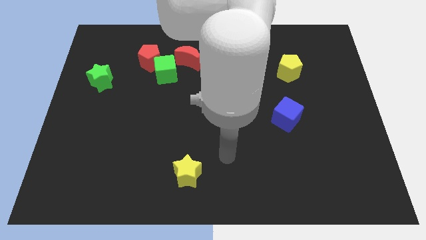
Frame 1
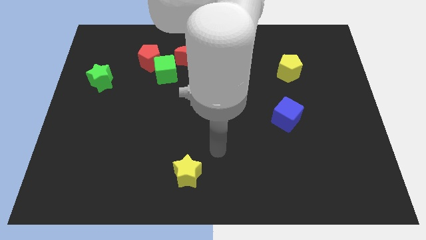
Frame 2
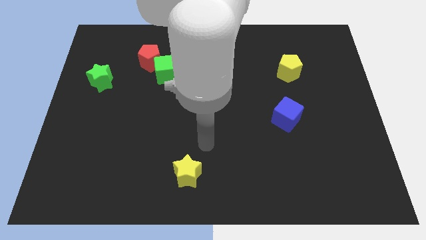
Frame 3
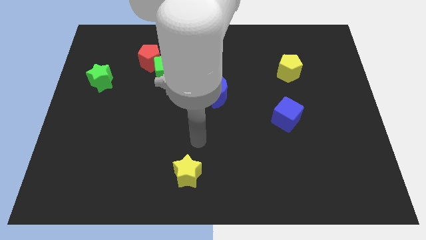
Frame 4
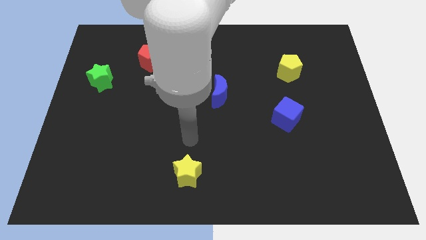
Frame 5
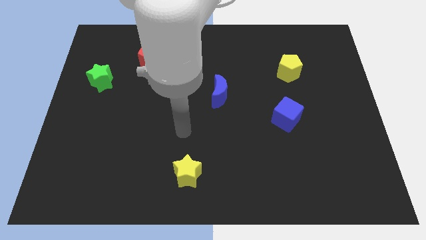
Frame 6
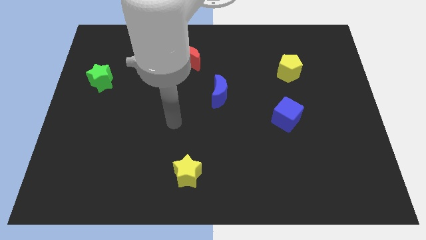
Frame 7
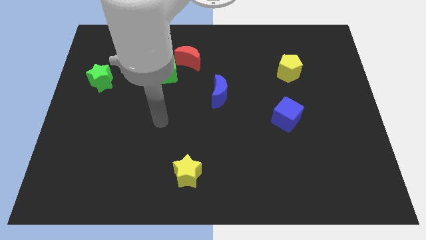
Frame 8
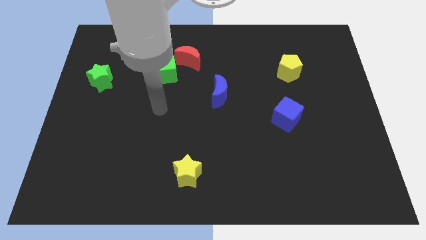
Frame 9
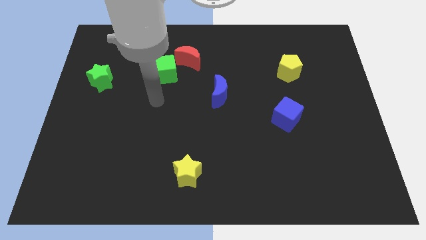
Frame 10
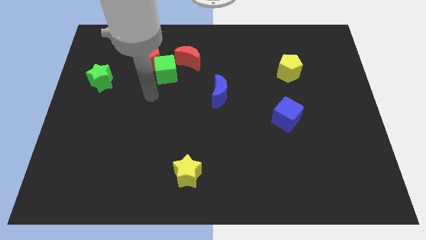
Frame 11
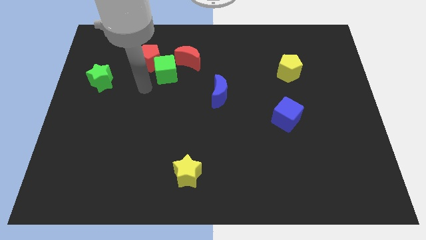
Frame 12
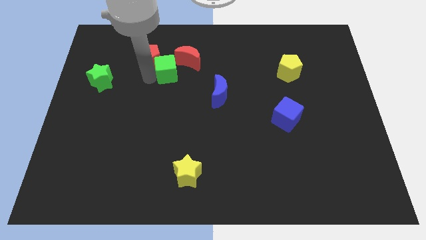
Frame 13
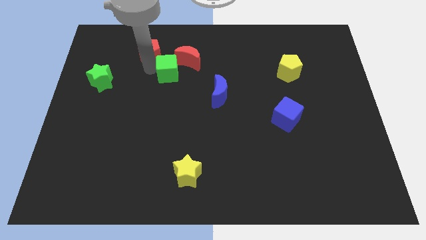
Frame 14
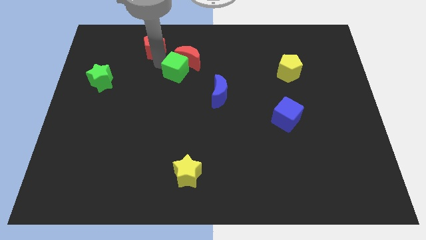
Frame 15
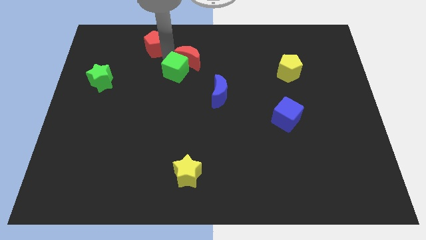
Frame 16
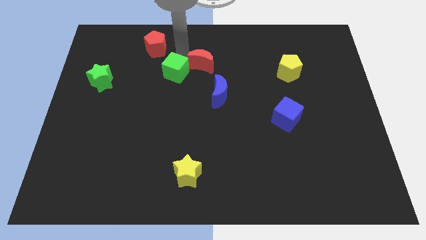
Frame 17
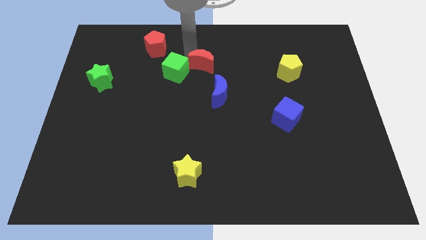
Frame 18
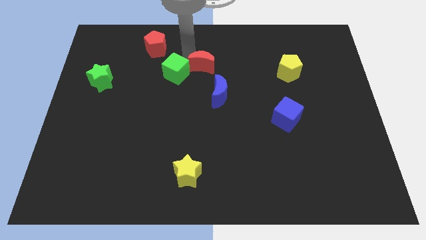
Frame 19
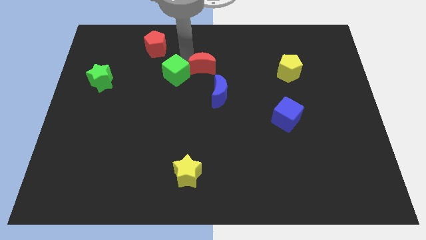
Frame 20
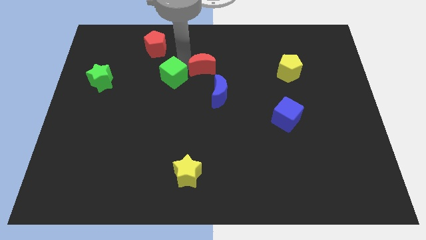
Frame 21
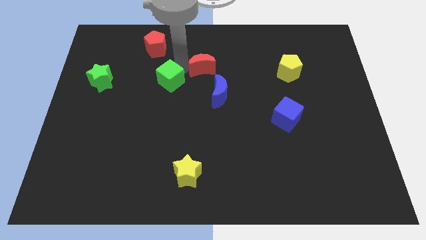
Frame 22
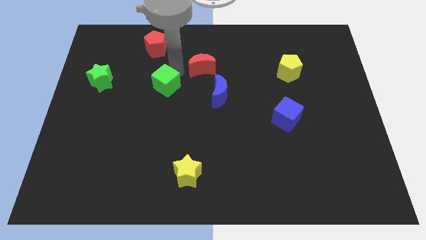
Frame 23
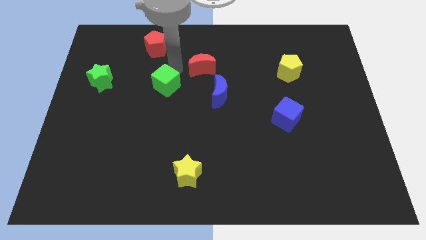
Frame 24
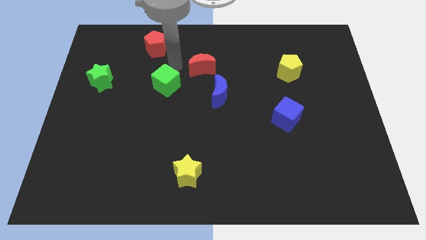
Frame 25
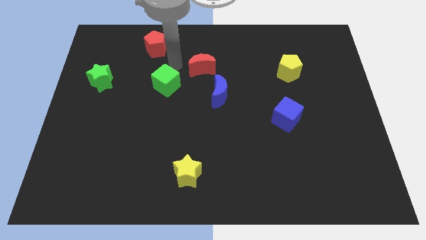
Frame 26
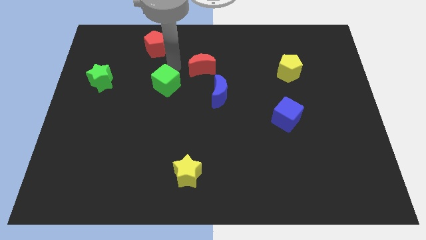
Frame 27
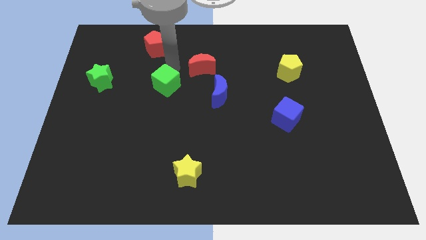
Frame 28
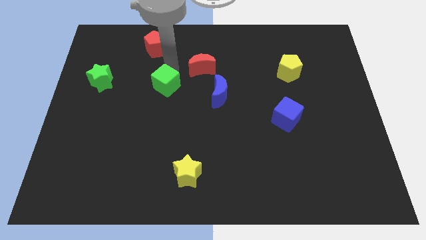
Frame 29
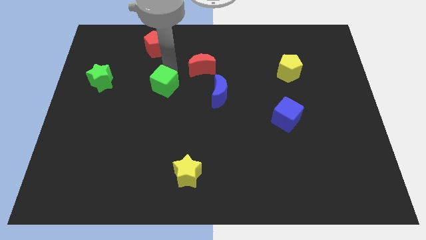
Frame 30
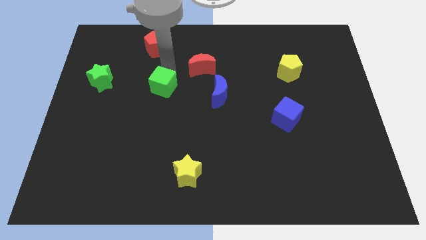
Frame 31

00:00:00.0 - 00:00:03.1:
separate the green cube from the red pentagon and red moon

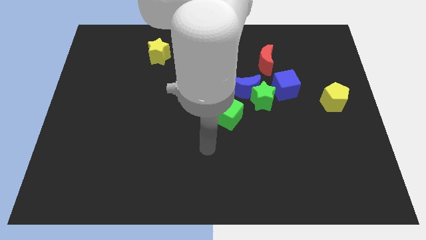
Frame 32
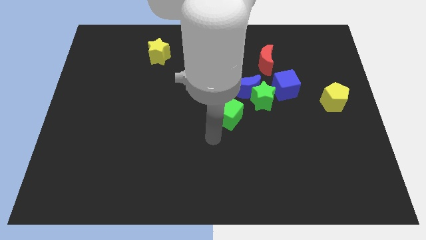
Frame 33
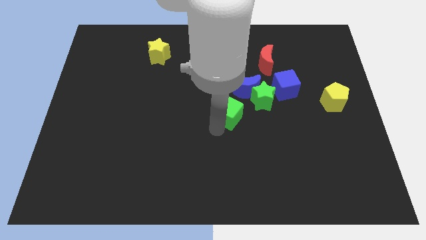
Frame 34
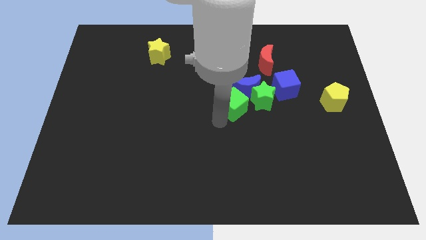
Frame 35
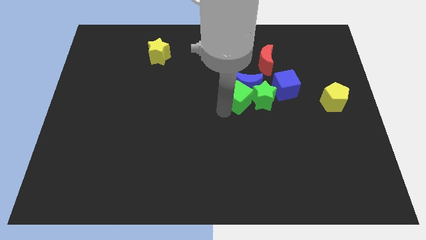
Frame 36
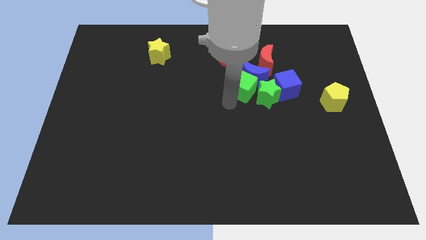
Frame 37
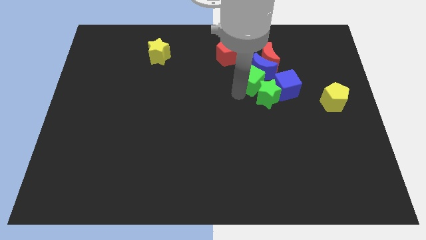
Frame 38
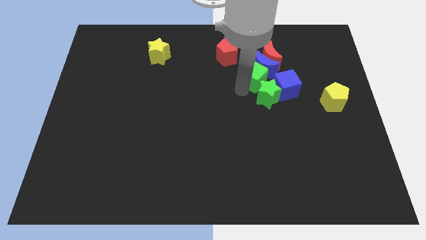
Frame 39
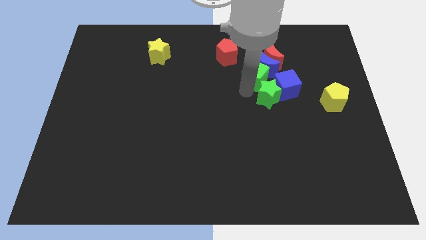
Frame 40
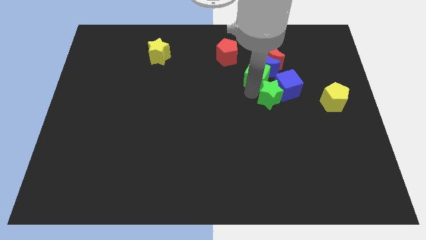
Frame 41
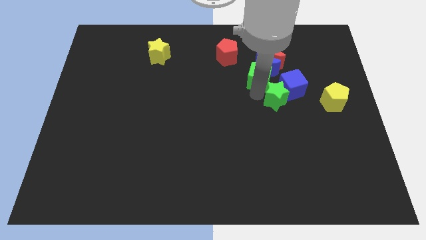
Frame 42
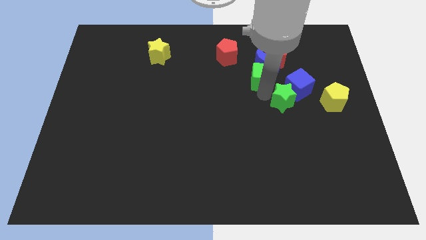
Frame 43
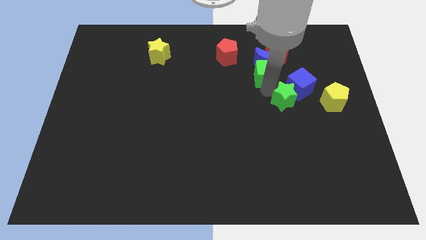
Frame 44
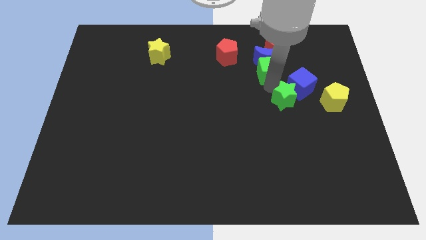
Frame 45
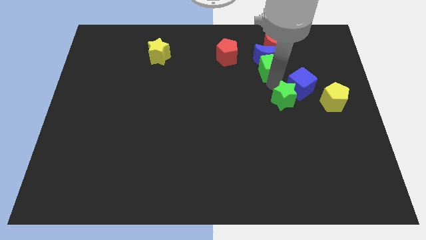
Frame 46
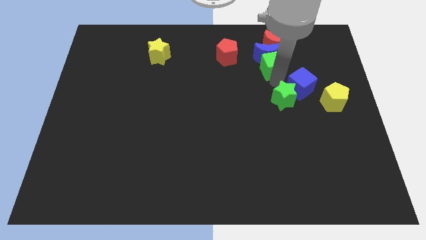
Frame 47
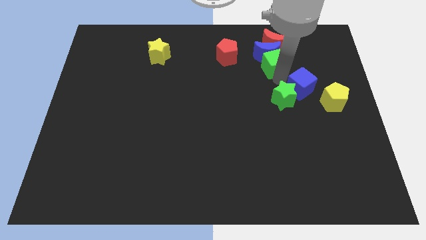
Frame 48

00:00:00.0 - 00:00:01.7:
pull the green star apart from the blue moon, blue cube, and green cube

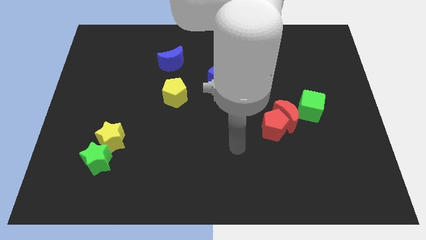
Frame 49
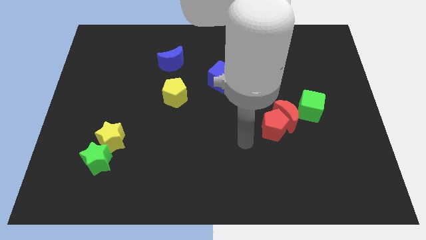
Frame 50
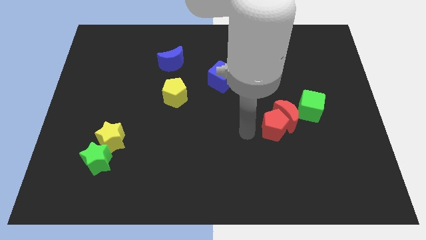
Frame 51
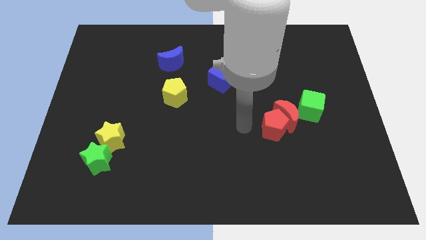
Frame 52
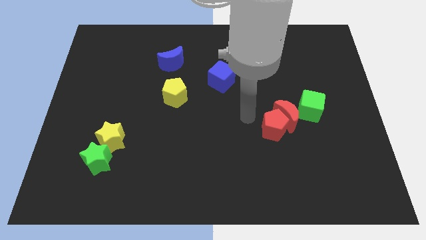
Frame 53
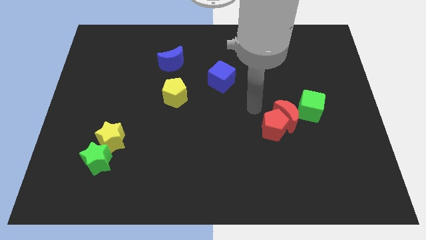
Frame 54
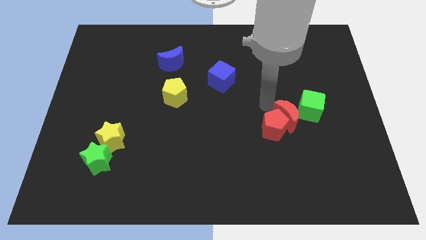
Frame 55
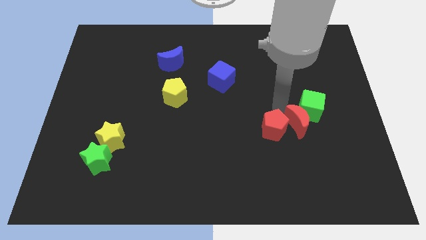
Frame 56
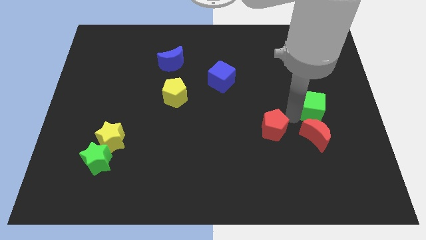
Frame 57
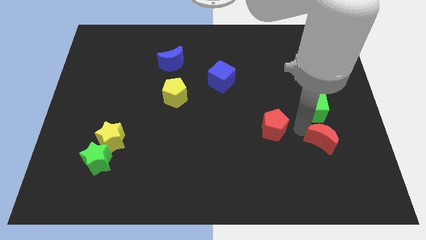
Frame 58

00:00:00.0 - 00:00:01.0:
move the red pentagon away from the red moon

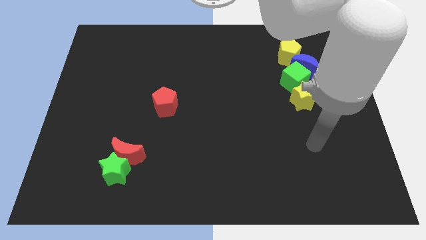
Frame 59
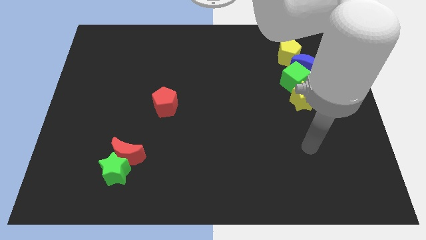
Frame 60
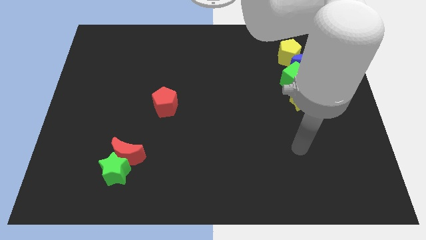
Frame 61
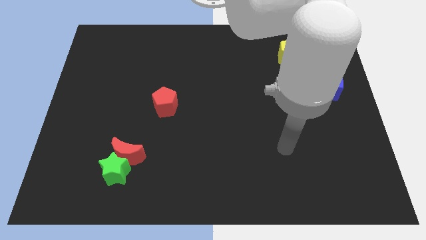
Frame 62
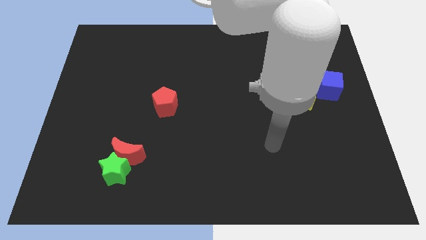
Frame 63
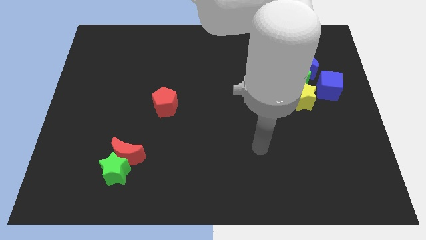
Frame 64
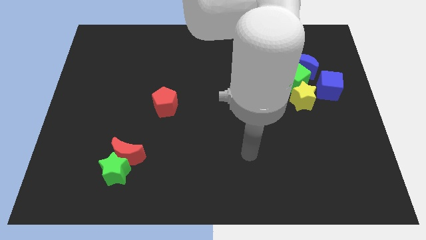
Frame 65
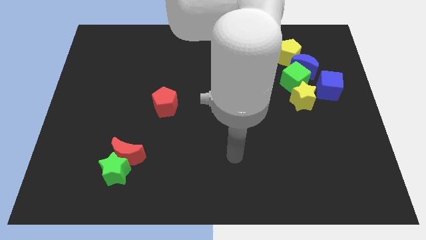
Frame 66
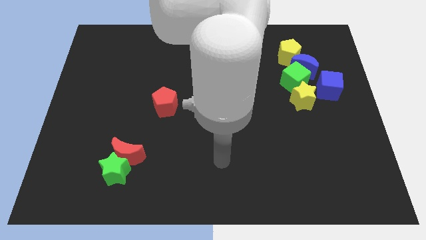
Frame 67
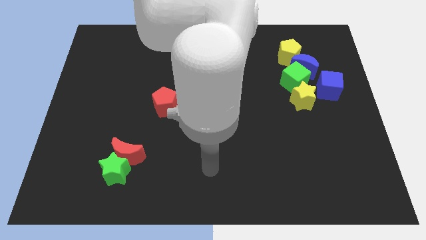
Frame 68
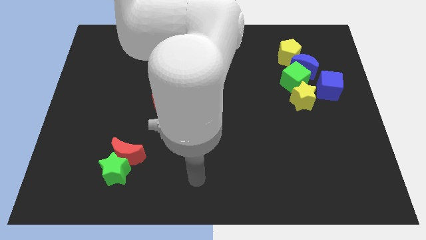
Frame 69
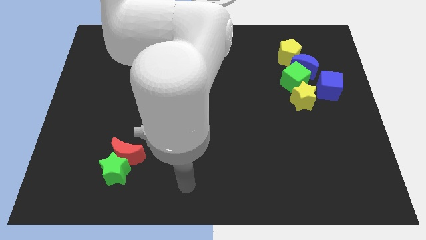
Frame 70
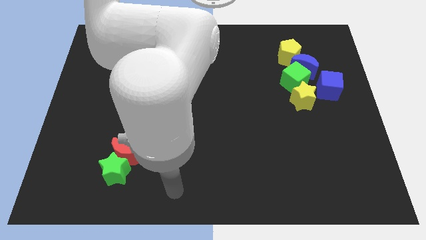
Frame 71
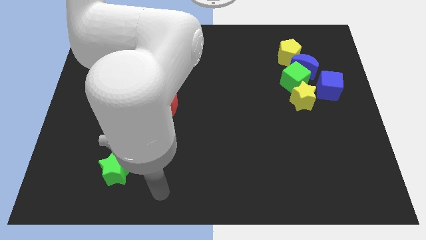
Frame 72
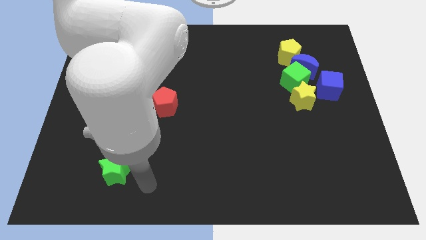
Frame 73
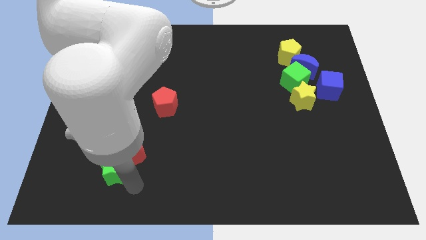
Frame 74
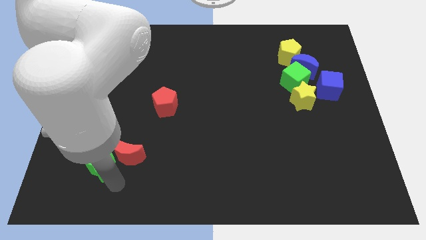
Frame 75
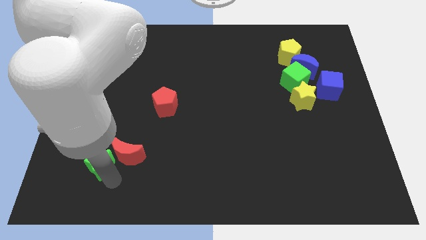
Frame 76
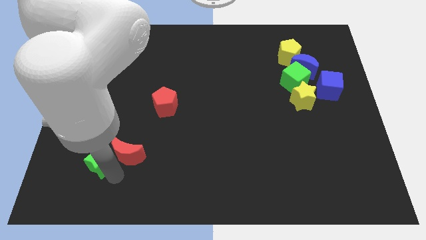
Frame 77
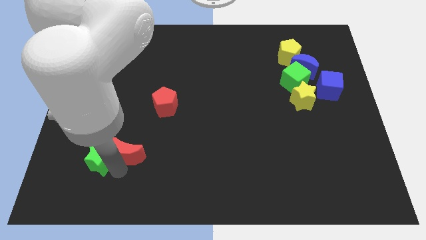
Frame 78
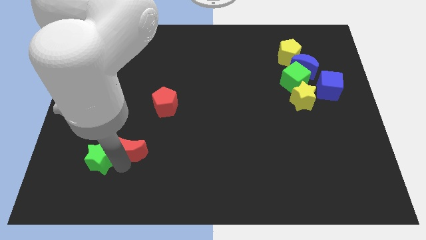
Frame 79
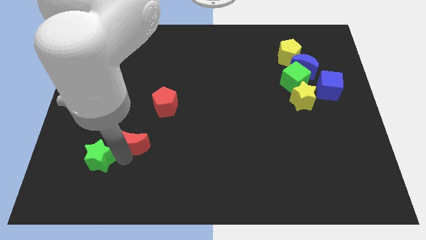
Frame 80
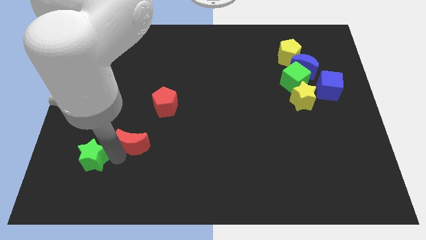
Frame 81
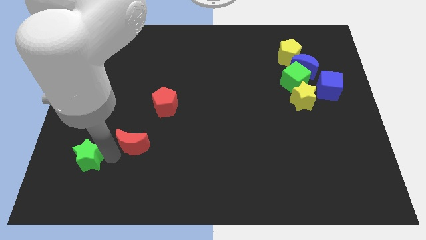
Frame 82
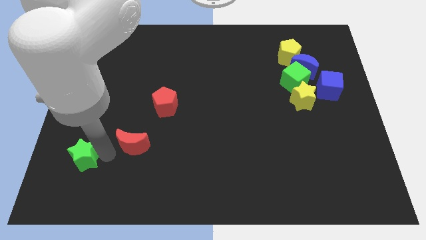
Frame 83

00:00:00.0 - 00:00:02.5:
move the red moon away from the green star

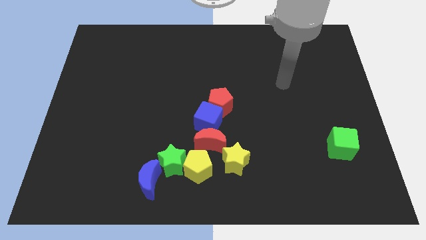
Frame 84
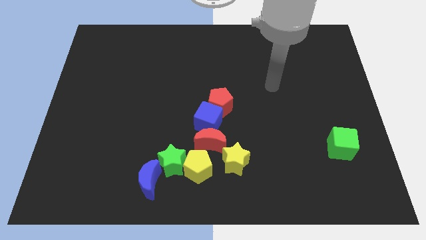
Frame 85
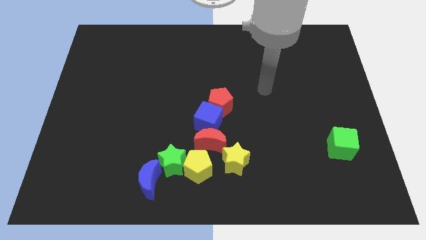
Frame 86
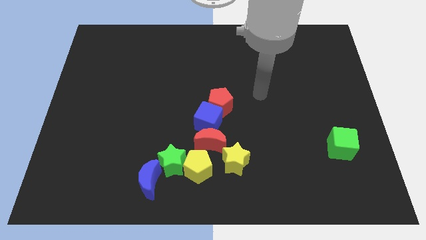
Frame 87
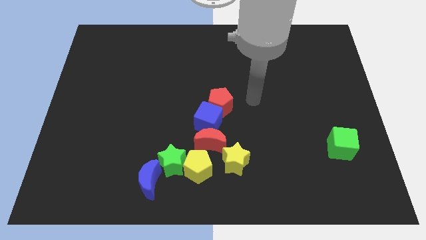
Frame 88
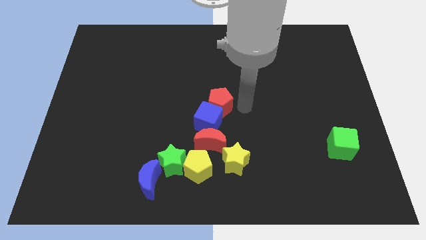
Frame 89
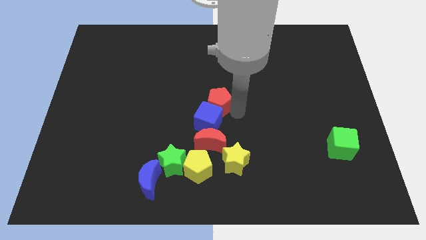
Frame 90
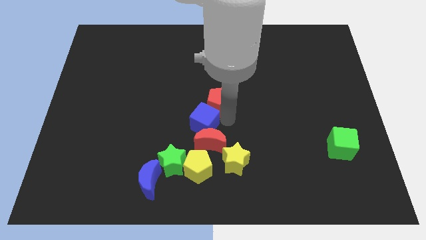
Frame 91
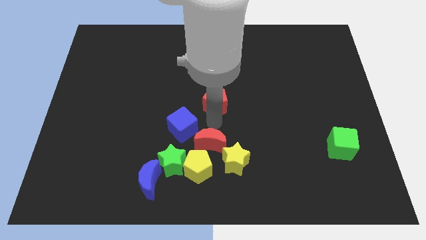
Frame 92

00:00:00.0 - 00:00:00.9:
pull the red pentagon apart from the blue cube

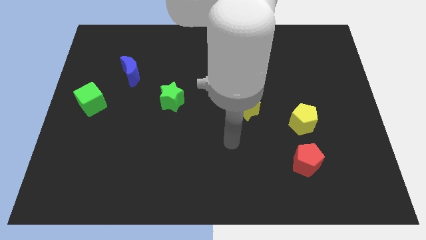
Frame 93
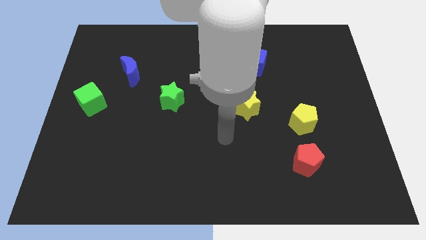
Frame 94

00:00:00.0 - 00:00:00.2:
move the red moon away from the blue cube
